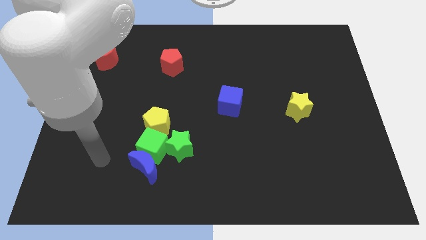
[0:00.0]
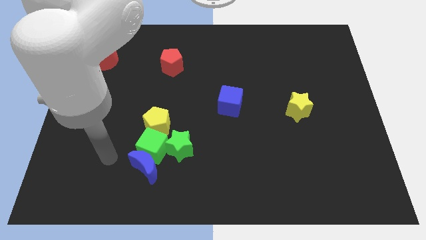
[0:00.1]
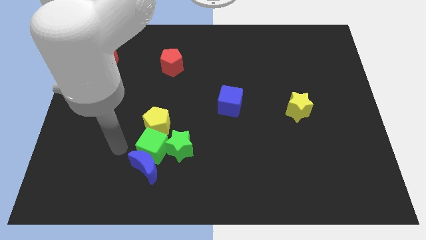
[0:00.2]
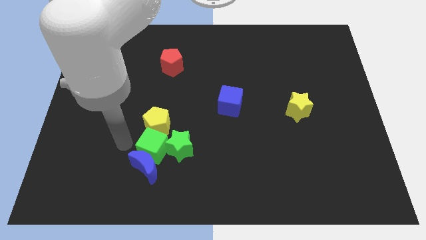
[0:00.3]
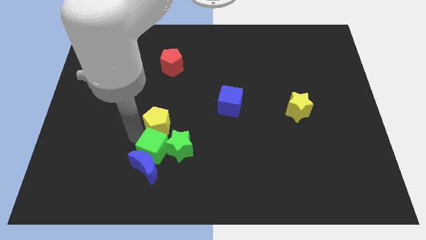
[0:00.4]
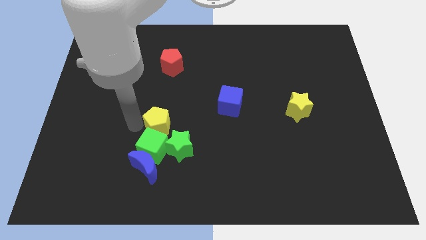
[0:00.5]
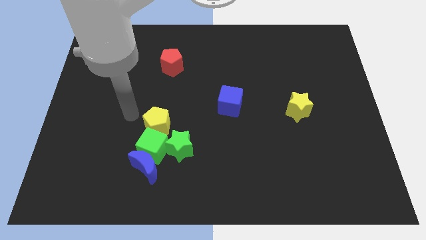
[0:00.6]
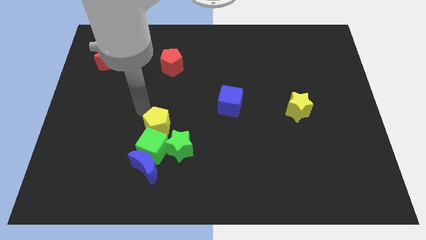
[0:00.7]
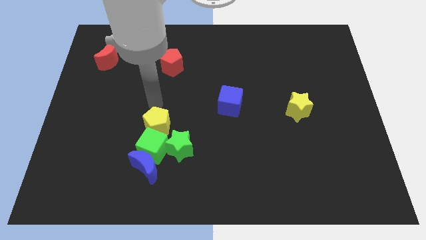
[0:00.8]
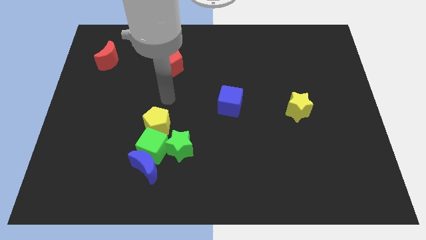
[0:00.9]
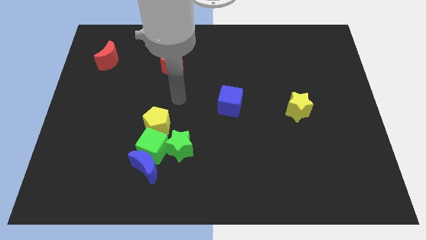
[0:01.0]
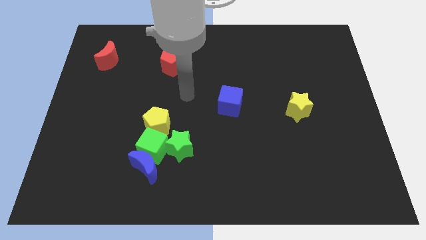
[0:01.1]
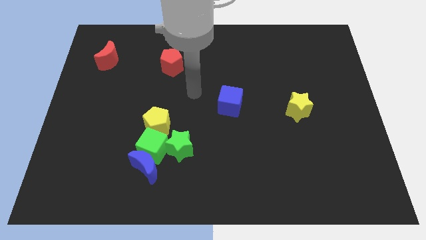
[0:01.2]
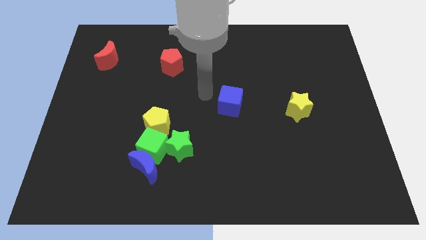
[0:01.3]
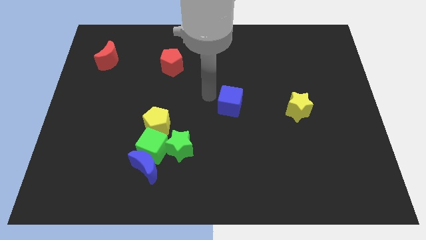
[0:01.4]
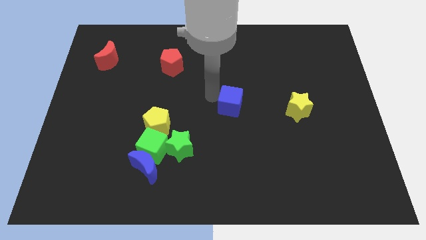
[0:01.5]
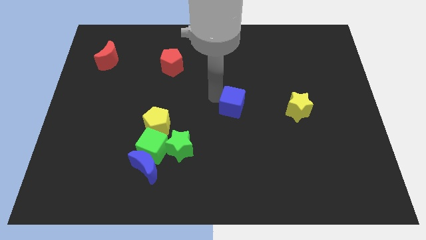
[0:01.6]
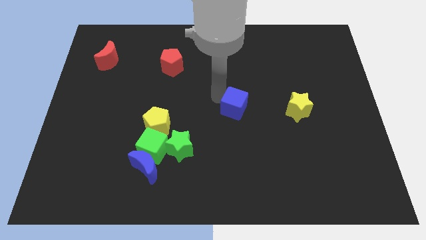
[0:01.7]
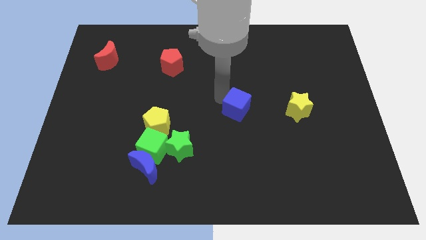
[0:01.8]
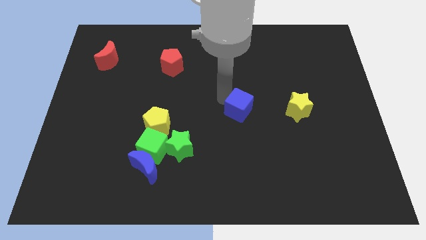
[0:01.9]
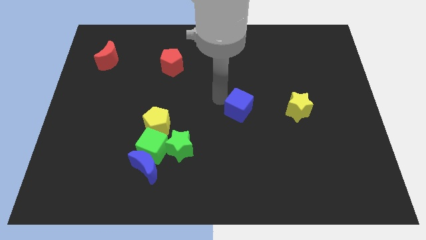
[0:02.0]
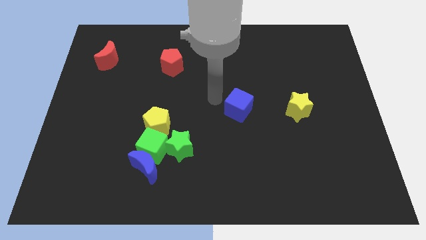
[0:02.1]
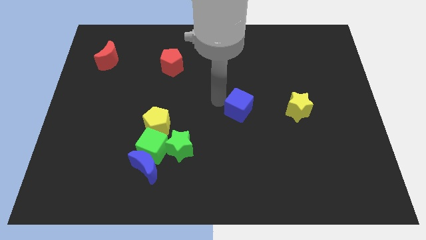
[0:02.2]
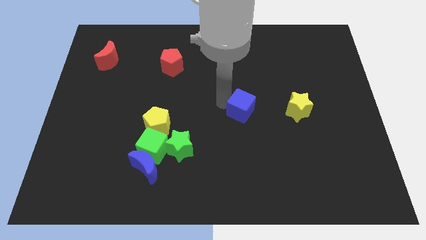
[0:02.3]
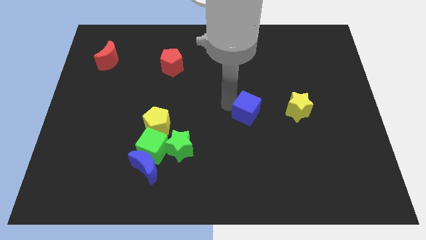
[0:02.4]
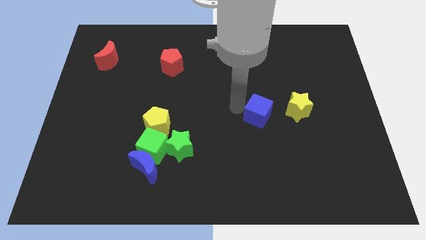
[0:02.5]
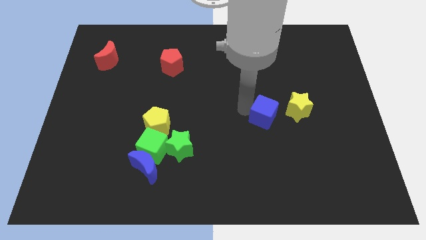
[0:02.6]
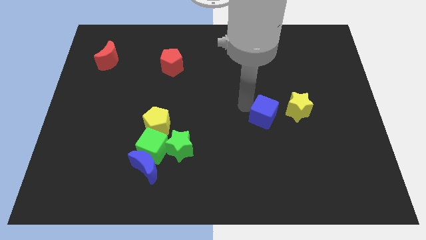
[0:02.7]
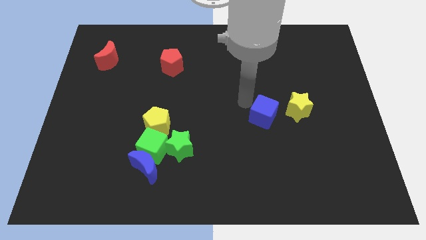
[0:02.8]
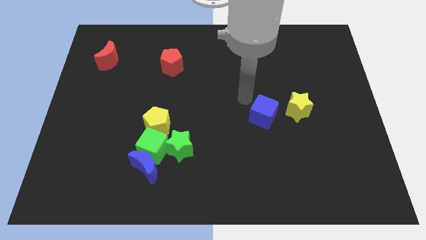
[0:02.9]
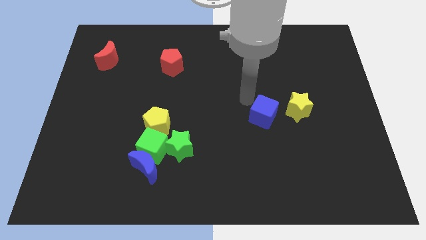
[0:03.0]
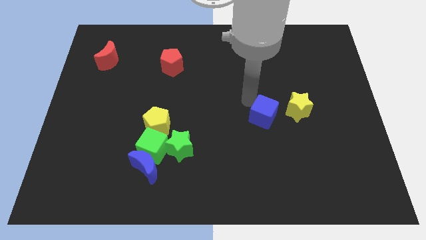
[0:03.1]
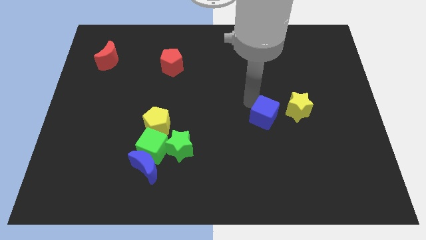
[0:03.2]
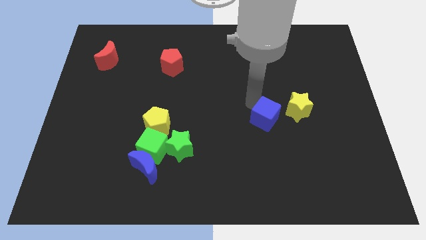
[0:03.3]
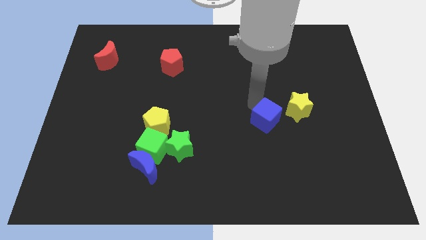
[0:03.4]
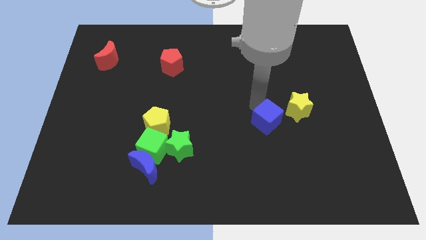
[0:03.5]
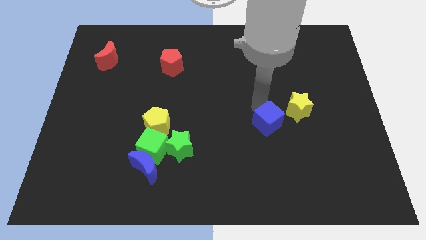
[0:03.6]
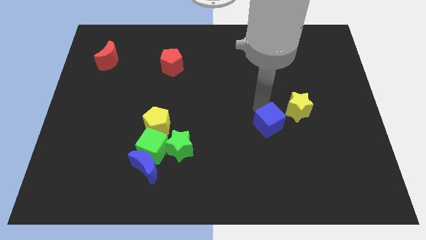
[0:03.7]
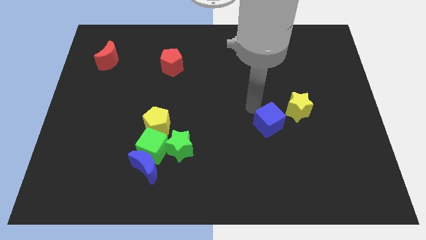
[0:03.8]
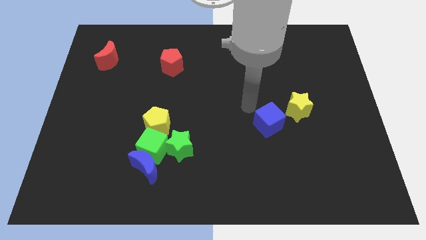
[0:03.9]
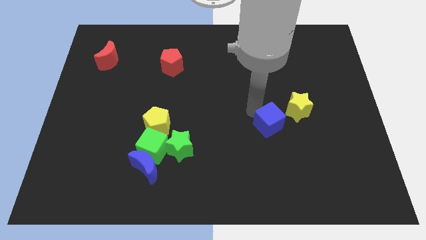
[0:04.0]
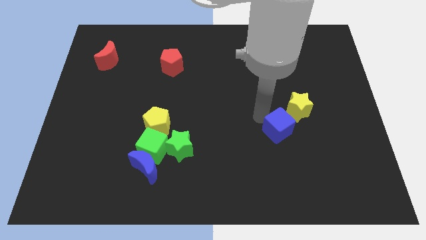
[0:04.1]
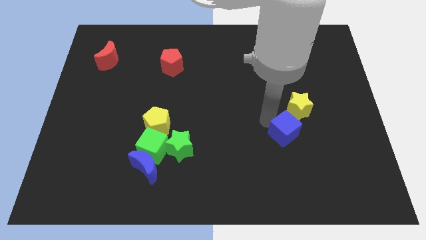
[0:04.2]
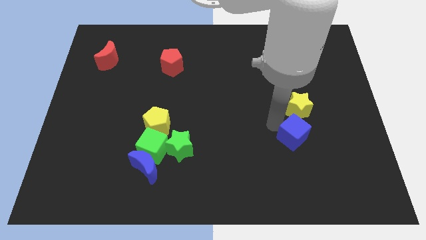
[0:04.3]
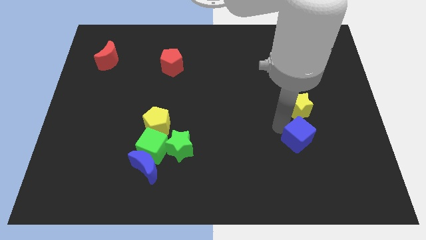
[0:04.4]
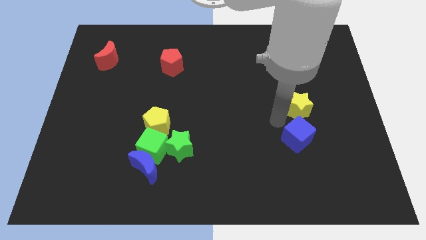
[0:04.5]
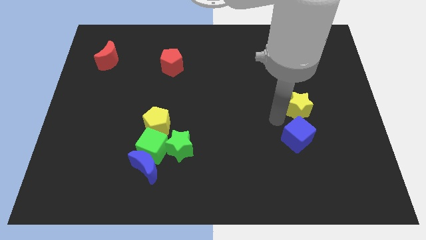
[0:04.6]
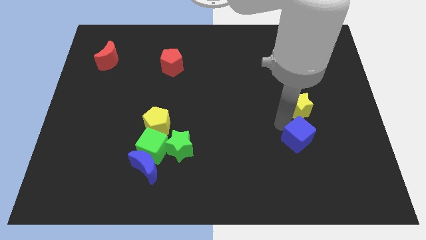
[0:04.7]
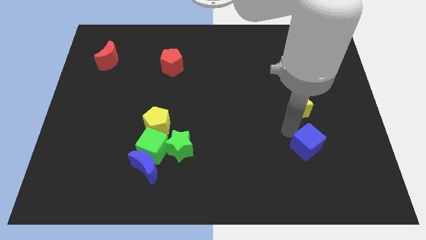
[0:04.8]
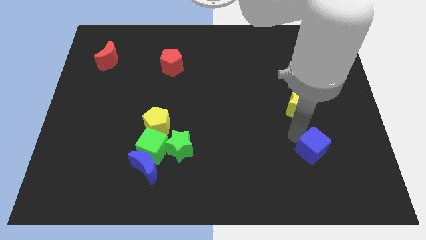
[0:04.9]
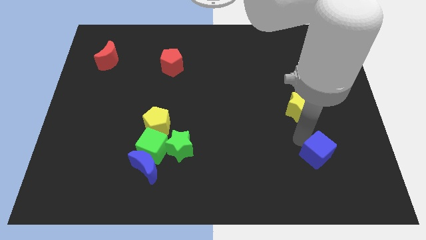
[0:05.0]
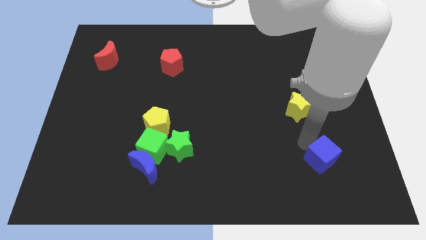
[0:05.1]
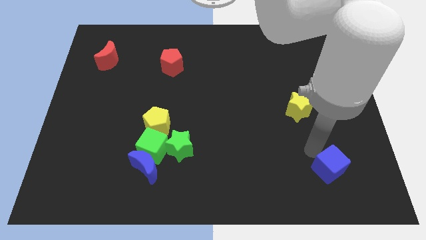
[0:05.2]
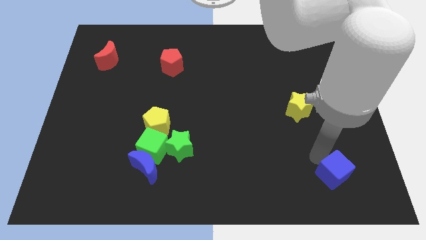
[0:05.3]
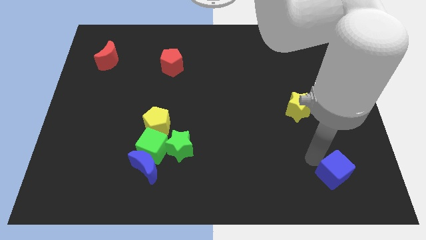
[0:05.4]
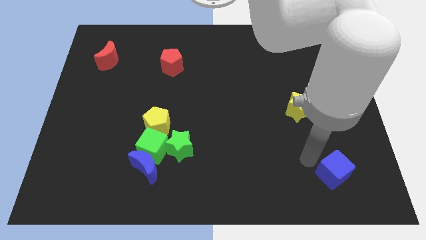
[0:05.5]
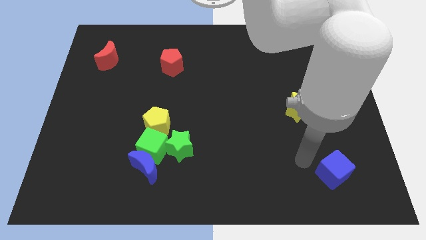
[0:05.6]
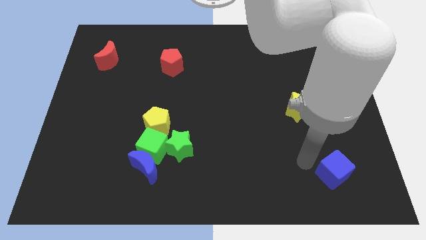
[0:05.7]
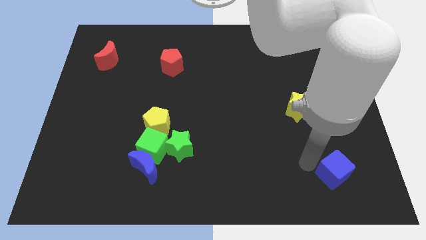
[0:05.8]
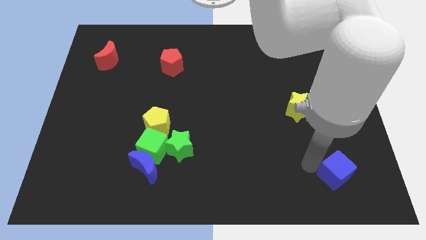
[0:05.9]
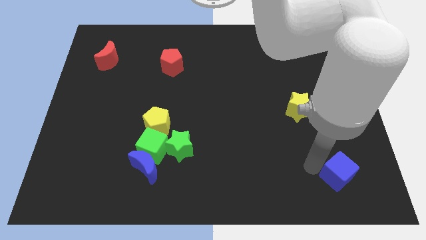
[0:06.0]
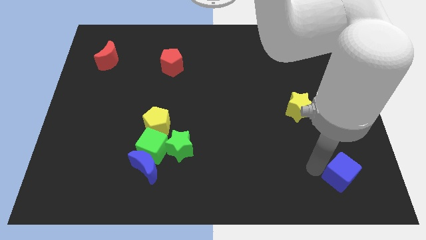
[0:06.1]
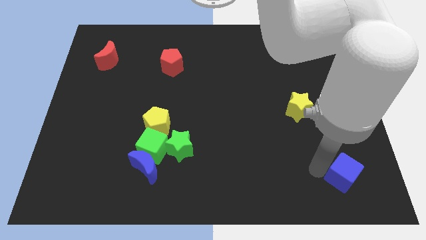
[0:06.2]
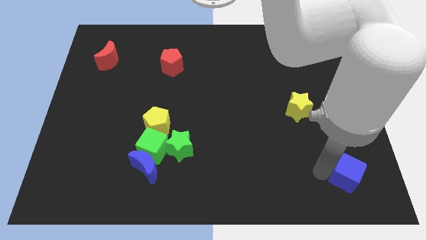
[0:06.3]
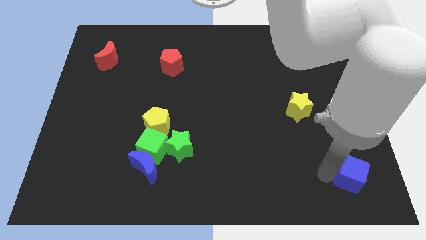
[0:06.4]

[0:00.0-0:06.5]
move the blue cube to the lower right corner

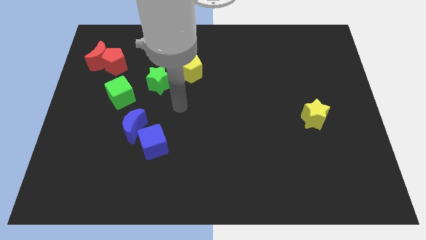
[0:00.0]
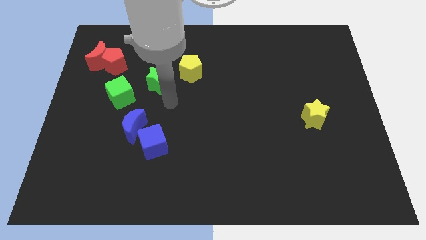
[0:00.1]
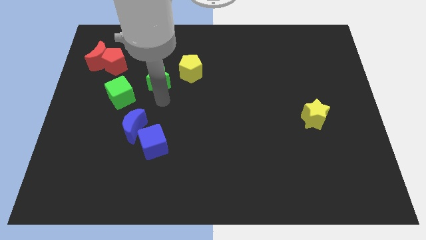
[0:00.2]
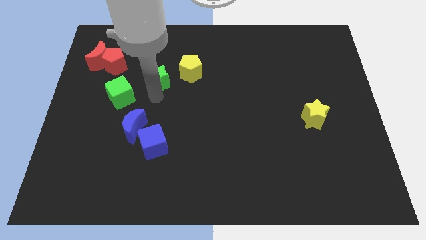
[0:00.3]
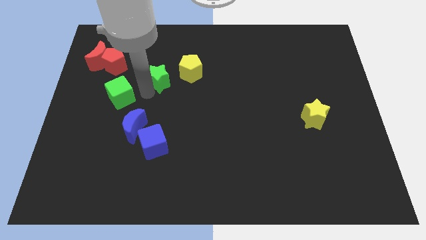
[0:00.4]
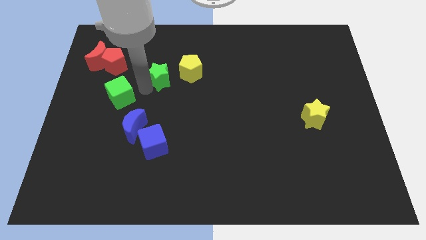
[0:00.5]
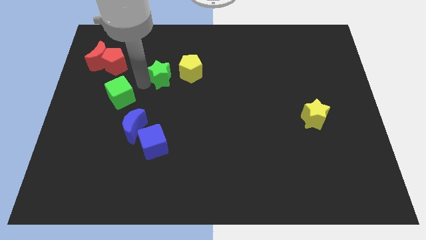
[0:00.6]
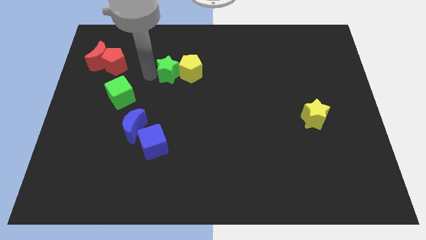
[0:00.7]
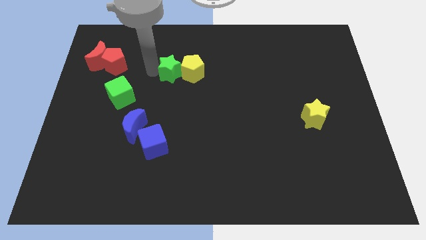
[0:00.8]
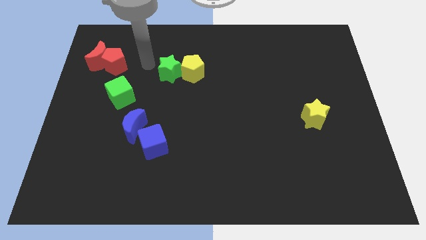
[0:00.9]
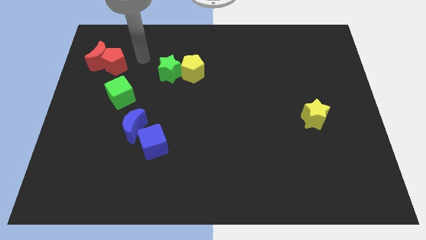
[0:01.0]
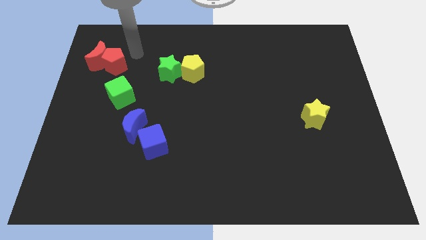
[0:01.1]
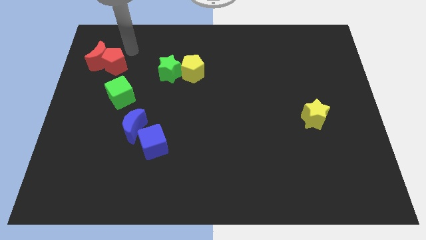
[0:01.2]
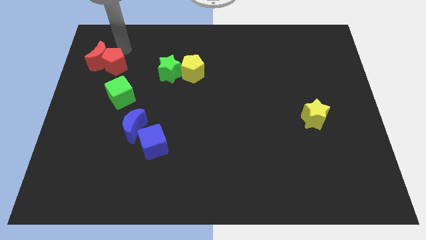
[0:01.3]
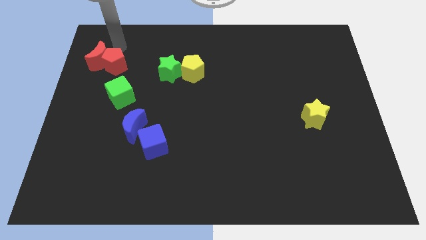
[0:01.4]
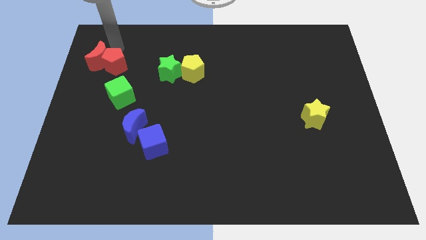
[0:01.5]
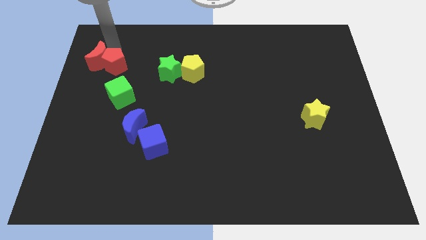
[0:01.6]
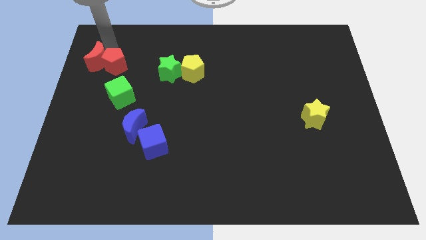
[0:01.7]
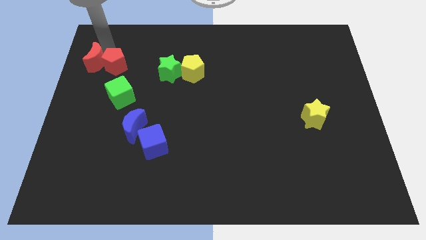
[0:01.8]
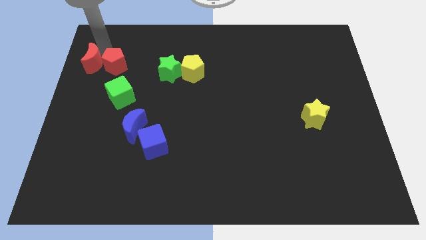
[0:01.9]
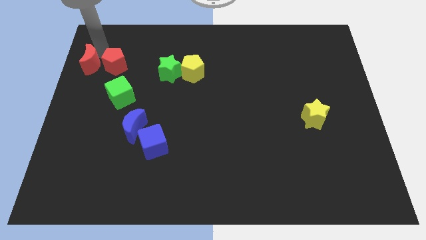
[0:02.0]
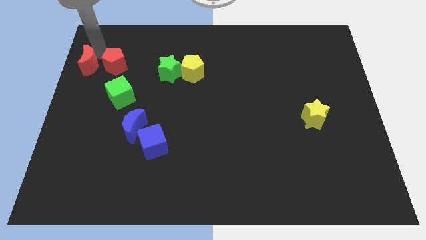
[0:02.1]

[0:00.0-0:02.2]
move the red moon to the center left
